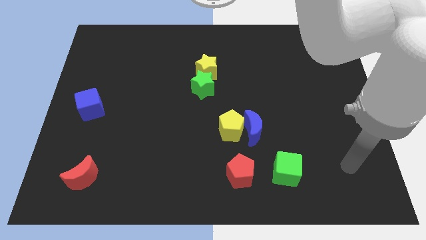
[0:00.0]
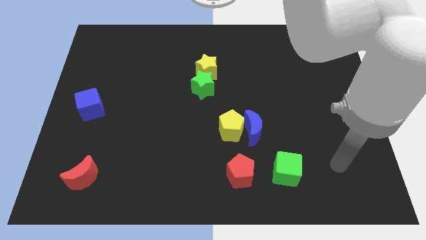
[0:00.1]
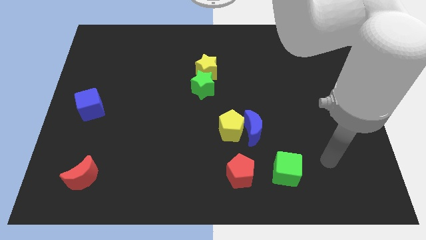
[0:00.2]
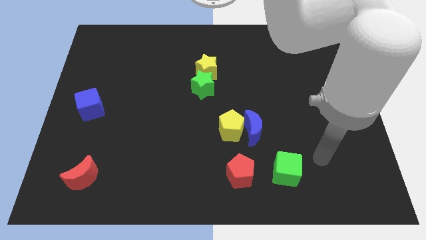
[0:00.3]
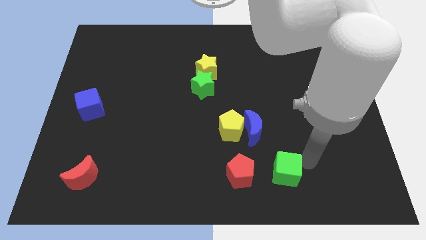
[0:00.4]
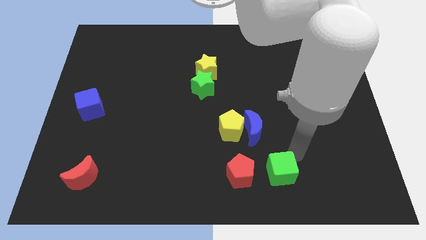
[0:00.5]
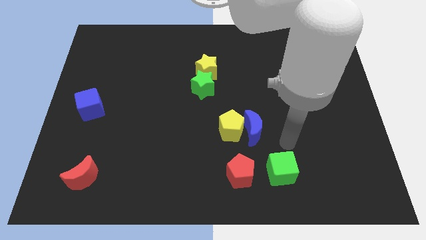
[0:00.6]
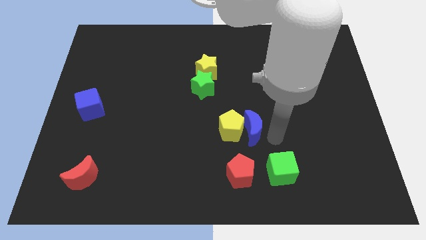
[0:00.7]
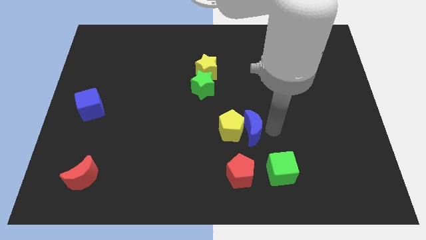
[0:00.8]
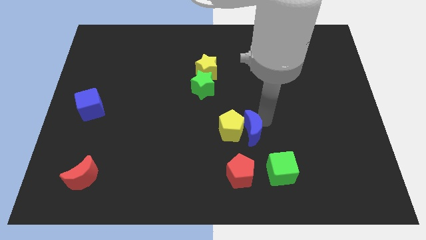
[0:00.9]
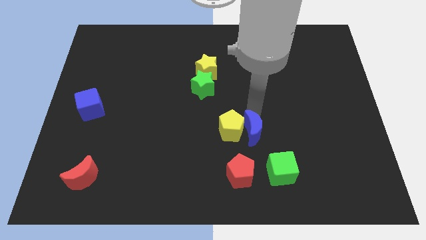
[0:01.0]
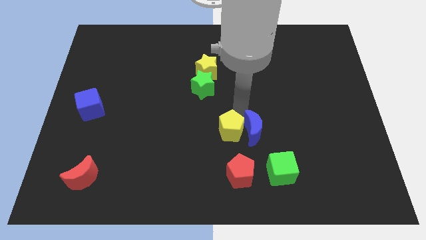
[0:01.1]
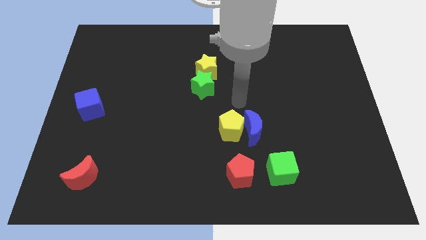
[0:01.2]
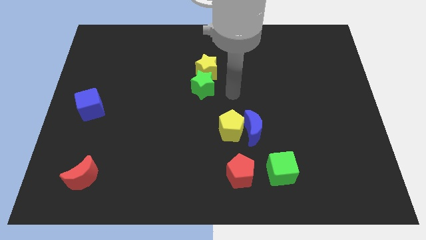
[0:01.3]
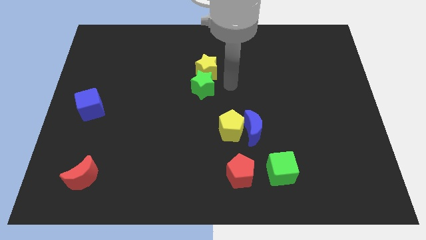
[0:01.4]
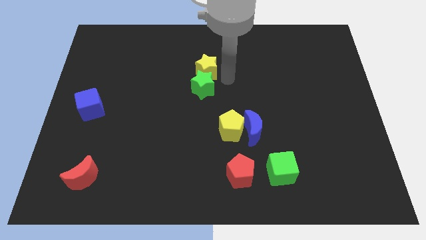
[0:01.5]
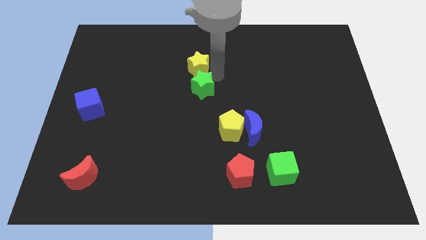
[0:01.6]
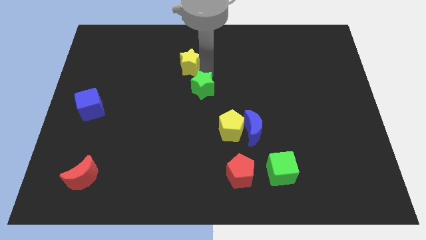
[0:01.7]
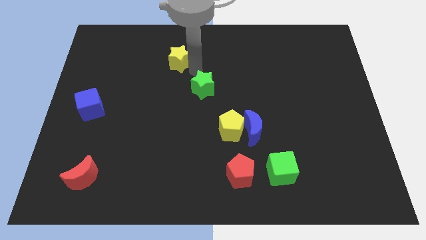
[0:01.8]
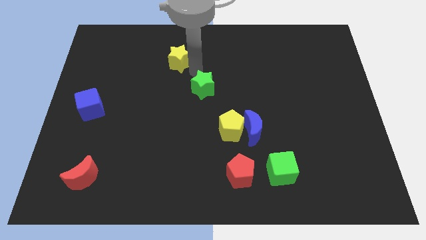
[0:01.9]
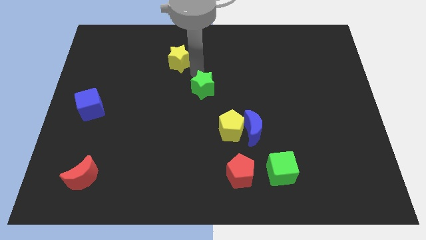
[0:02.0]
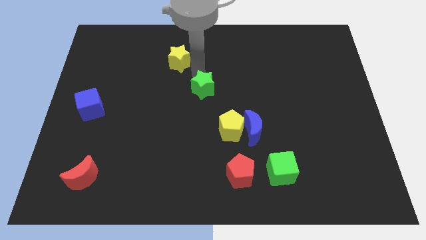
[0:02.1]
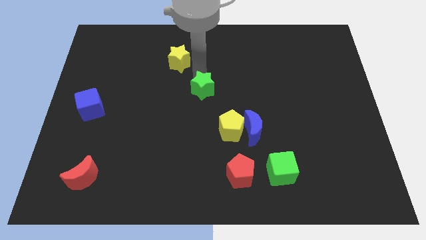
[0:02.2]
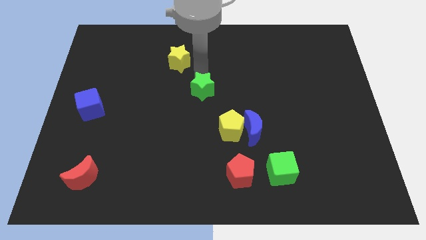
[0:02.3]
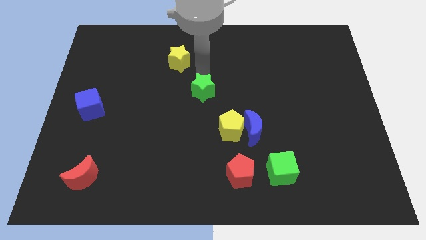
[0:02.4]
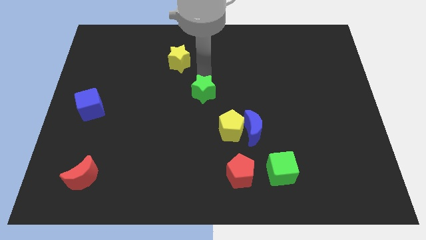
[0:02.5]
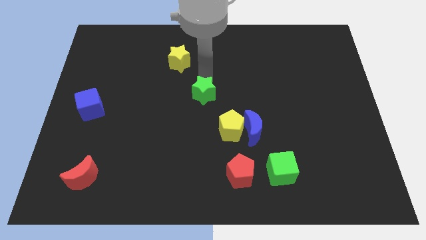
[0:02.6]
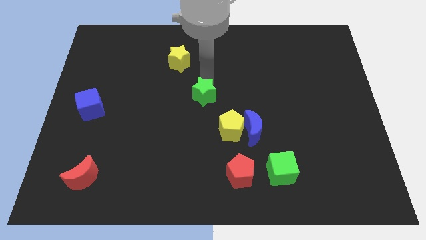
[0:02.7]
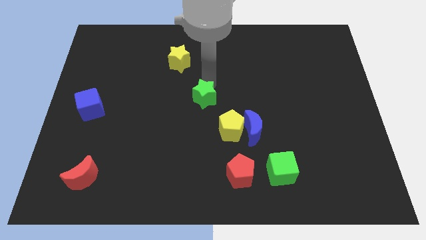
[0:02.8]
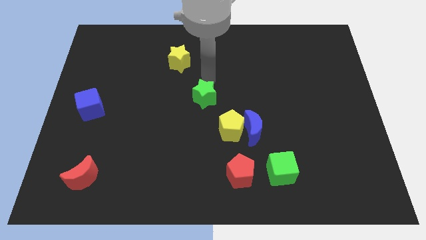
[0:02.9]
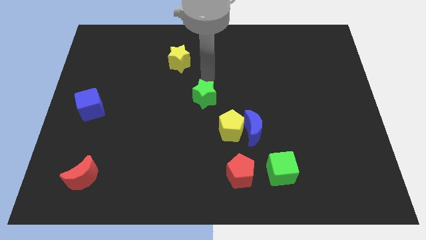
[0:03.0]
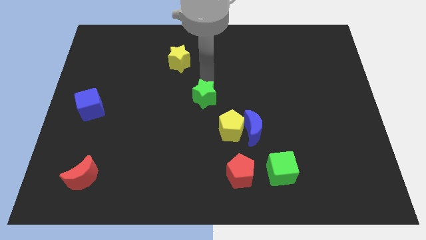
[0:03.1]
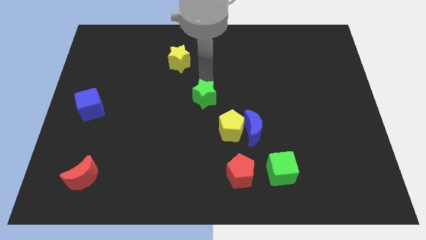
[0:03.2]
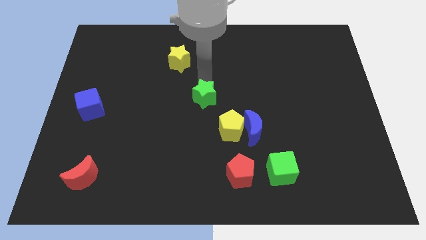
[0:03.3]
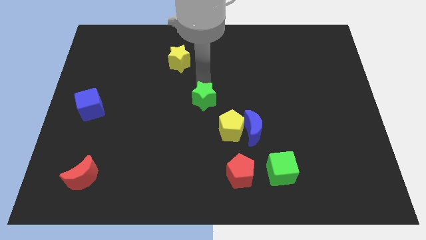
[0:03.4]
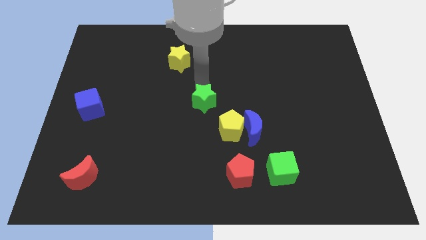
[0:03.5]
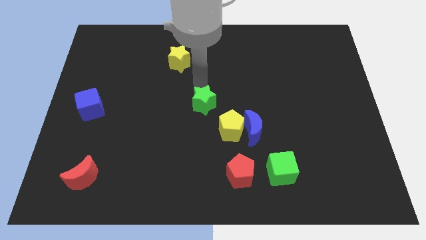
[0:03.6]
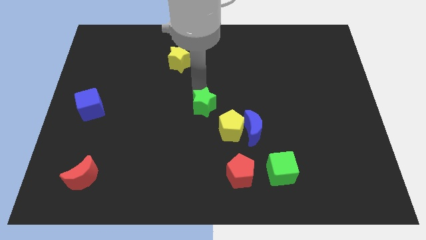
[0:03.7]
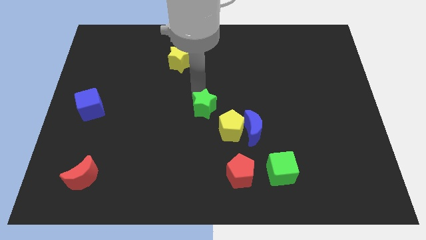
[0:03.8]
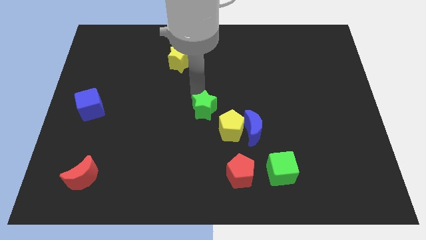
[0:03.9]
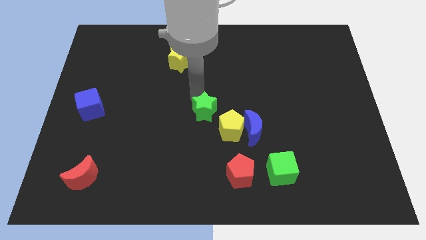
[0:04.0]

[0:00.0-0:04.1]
move the green star down somewhat

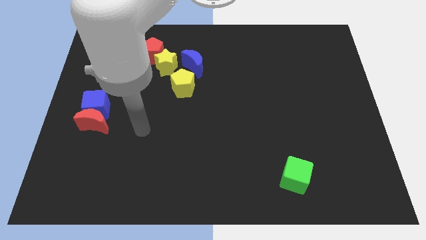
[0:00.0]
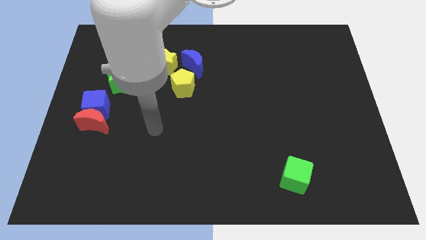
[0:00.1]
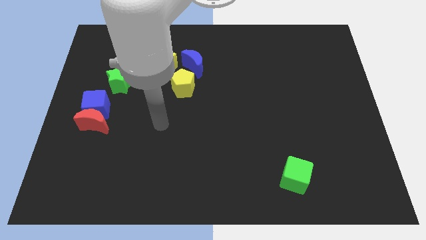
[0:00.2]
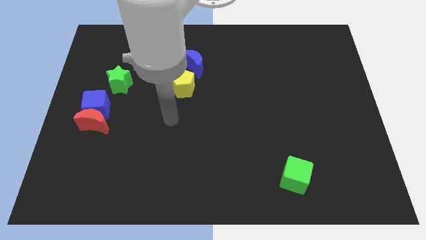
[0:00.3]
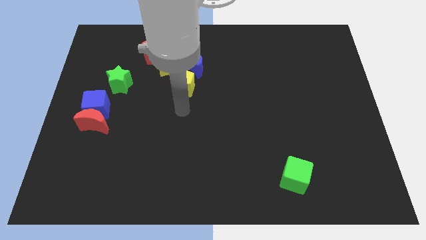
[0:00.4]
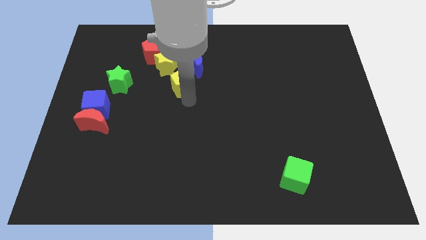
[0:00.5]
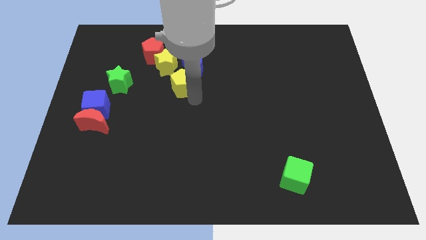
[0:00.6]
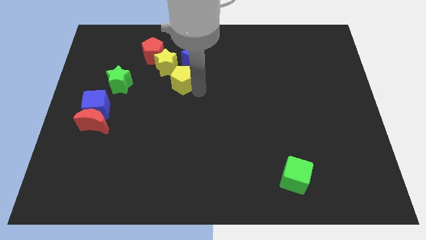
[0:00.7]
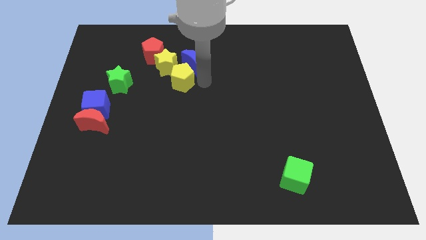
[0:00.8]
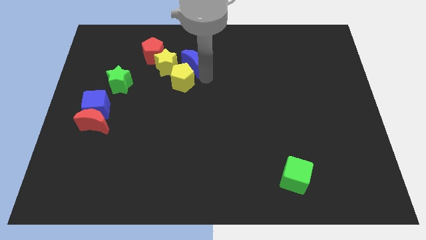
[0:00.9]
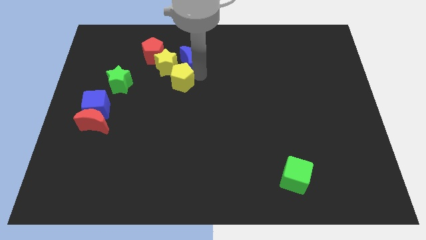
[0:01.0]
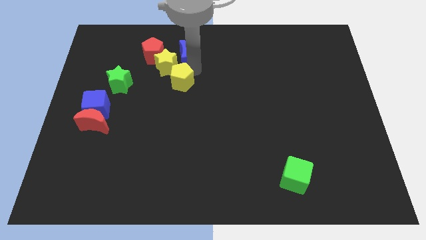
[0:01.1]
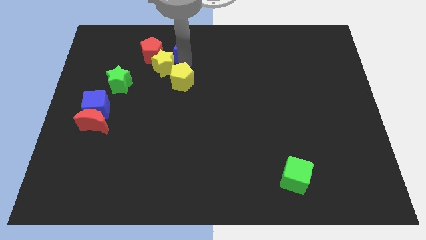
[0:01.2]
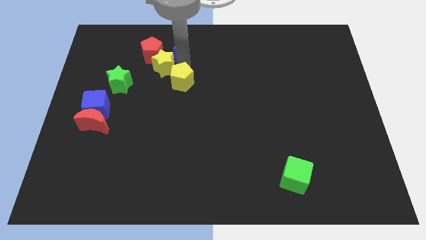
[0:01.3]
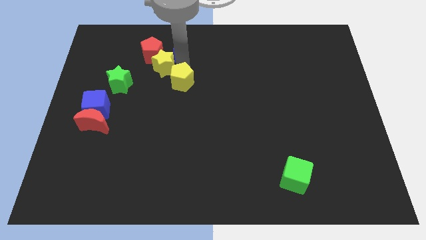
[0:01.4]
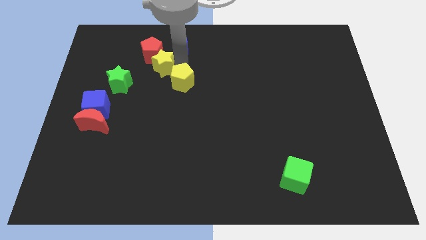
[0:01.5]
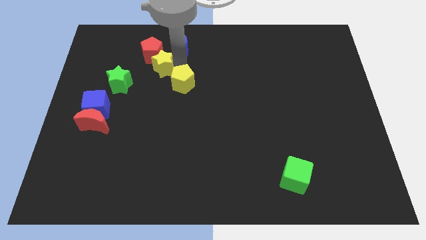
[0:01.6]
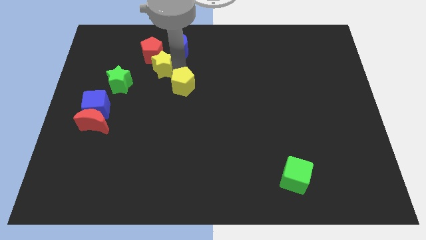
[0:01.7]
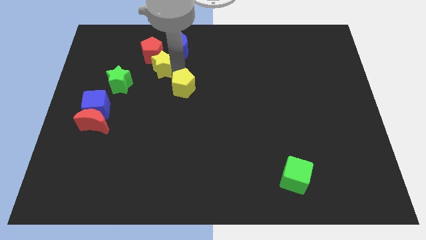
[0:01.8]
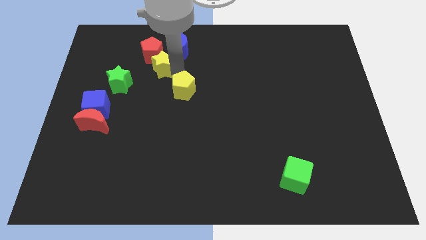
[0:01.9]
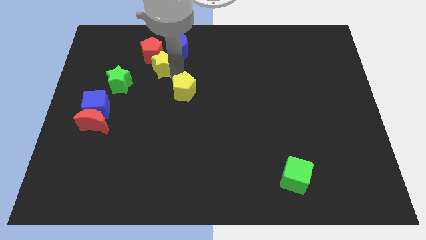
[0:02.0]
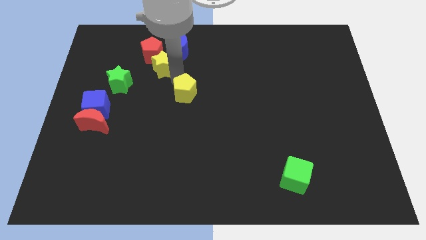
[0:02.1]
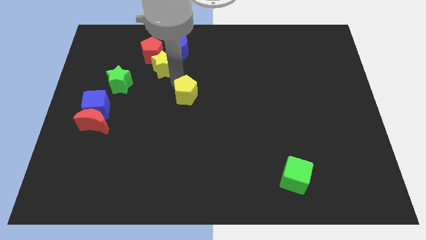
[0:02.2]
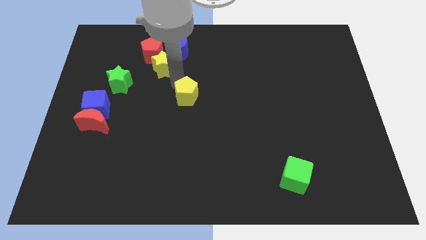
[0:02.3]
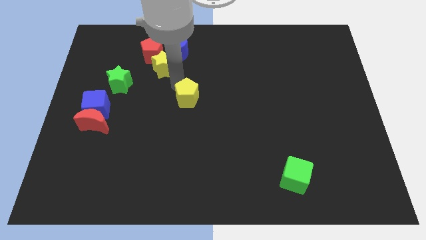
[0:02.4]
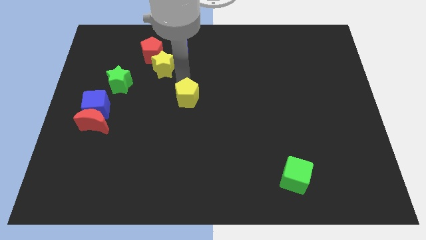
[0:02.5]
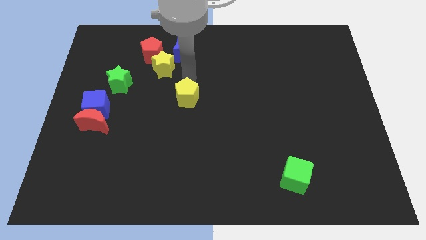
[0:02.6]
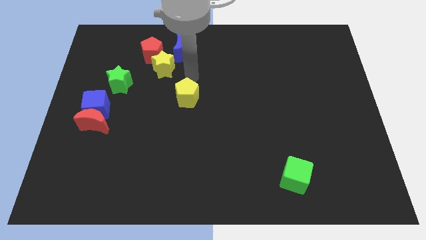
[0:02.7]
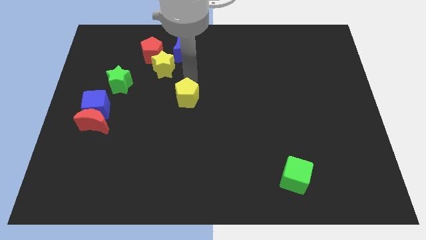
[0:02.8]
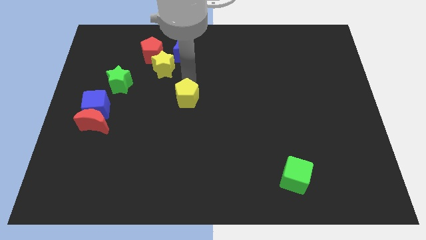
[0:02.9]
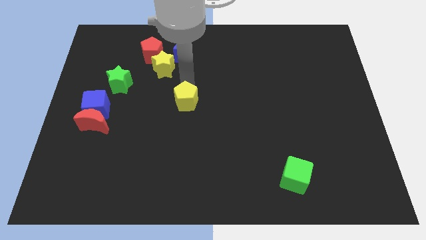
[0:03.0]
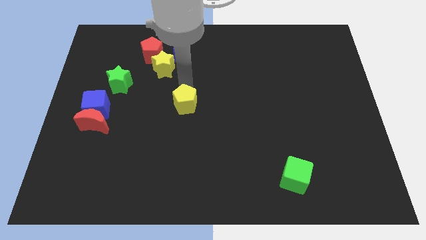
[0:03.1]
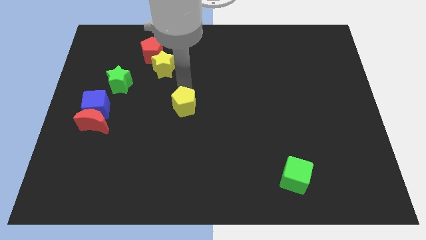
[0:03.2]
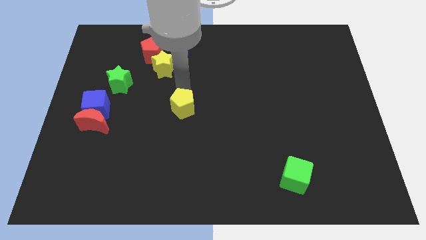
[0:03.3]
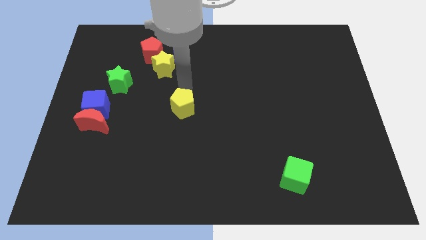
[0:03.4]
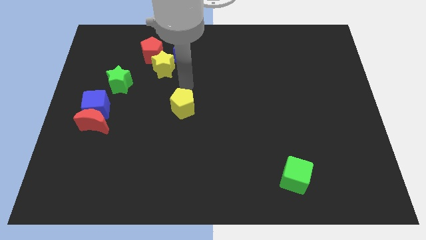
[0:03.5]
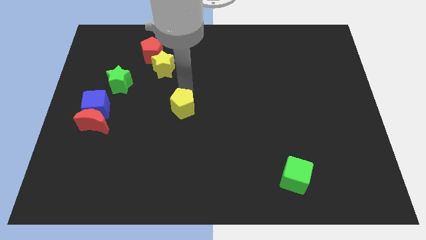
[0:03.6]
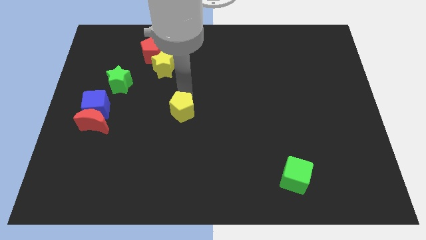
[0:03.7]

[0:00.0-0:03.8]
slightly slide the yellow pentagon down
